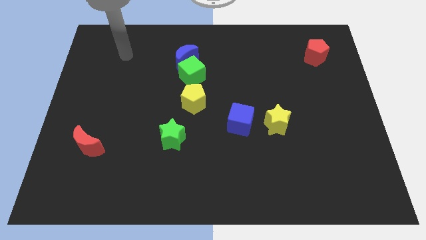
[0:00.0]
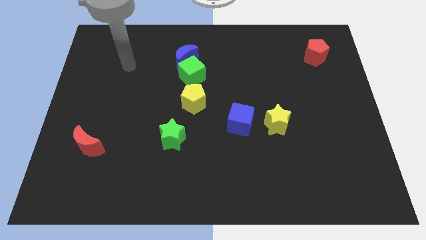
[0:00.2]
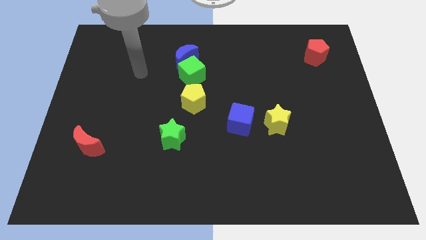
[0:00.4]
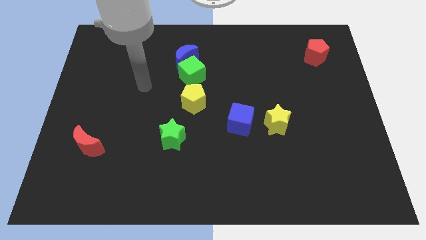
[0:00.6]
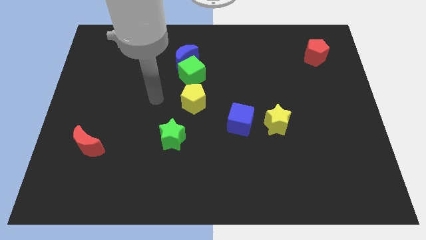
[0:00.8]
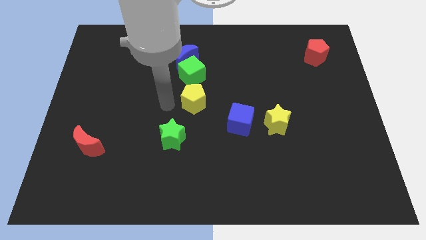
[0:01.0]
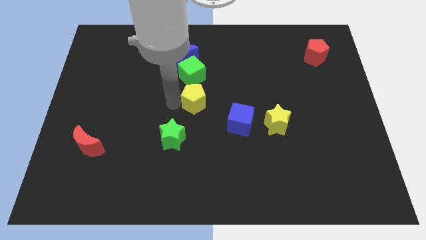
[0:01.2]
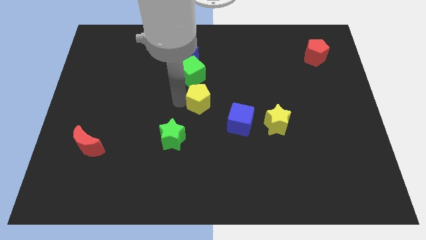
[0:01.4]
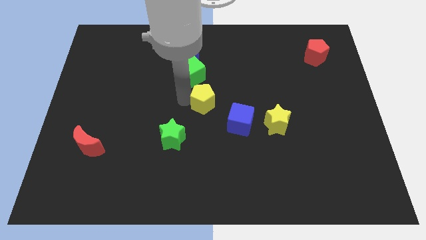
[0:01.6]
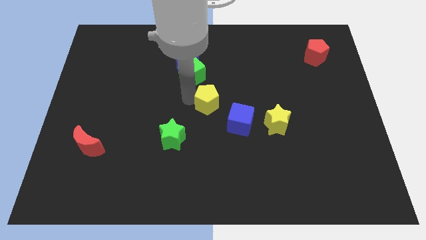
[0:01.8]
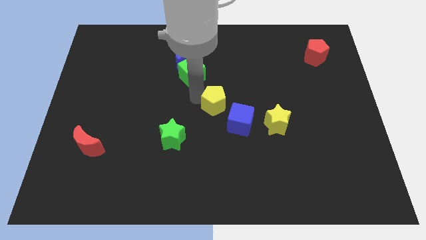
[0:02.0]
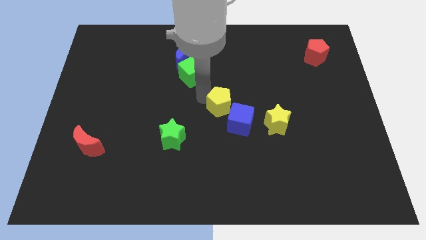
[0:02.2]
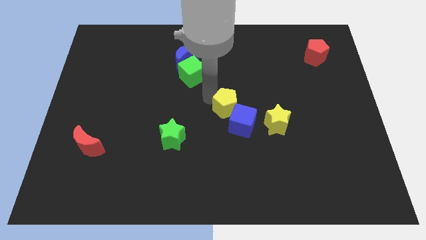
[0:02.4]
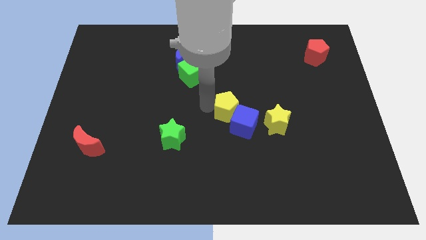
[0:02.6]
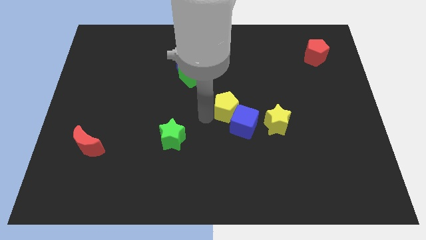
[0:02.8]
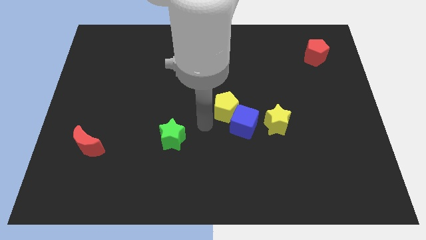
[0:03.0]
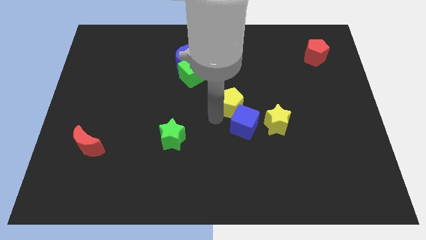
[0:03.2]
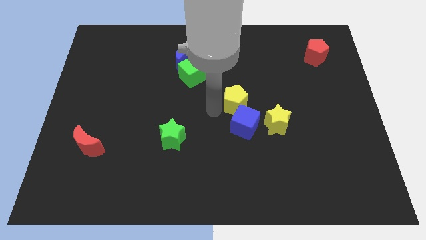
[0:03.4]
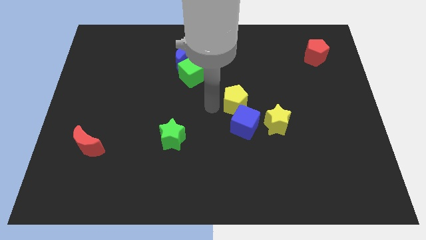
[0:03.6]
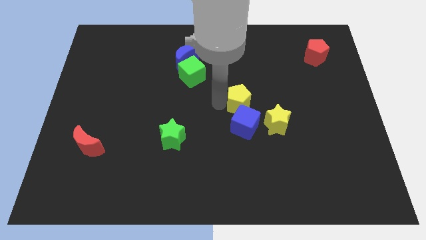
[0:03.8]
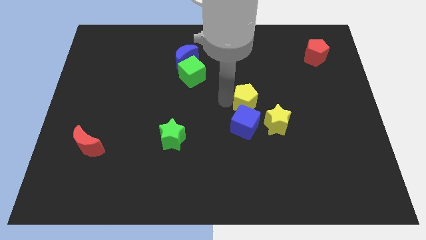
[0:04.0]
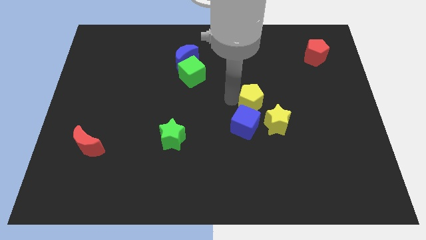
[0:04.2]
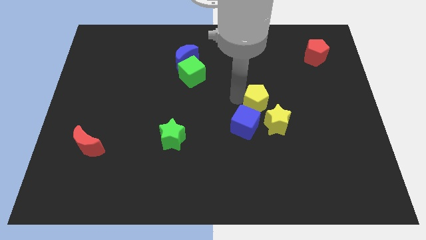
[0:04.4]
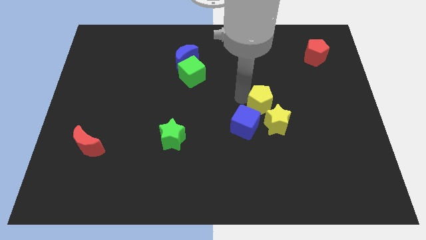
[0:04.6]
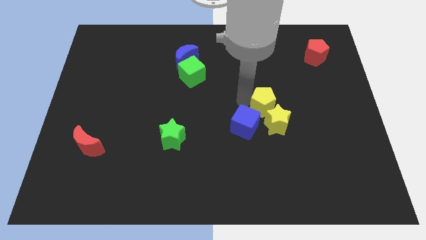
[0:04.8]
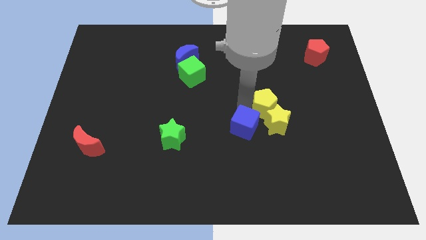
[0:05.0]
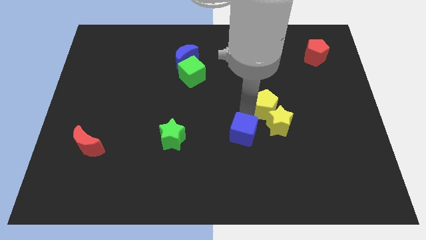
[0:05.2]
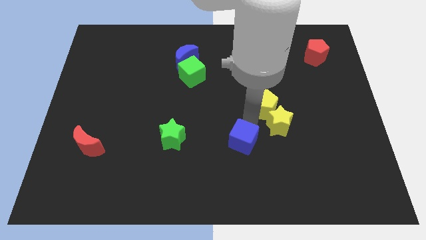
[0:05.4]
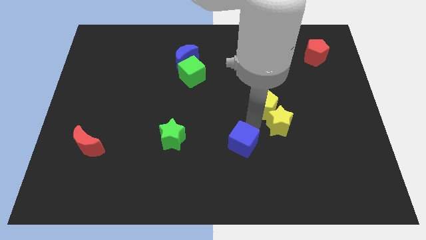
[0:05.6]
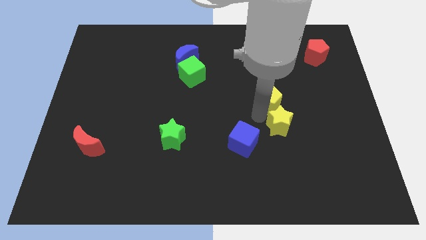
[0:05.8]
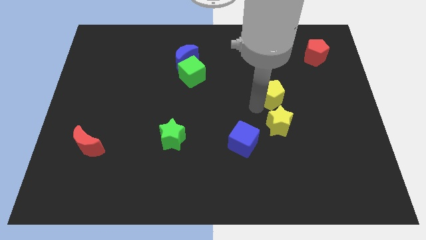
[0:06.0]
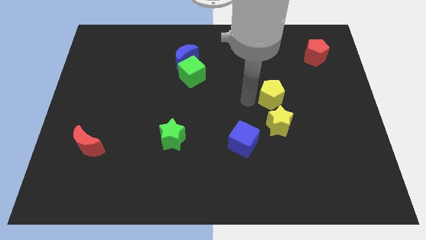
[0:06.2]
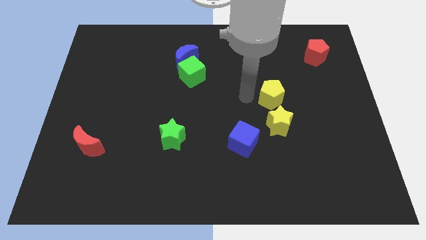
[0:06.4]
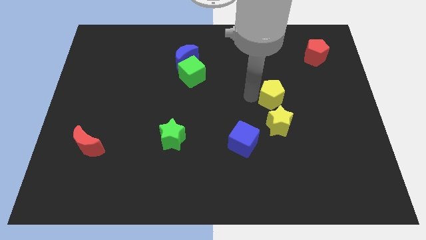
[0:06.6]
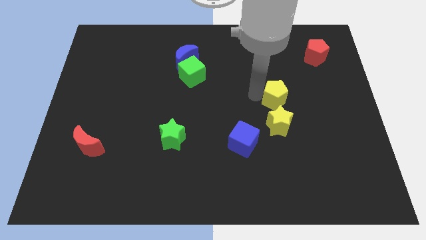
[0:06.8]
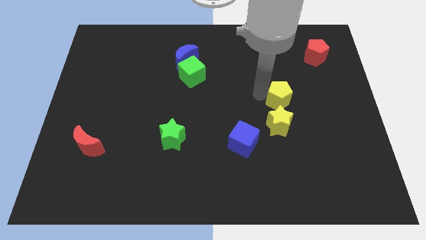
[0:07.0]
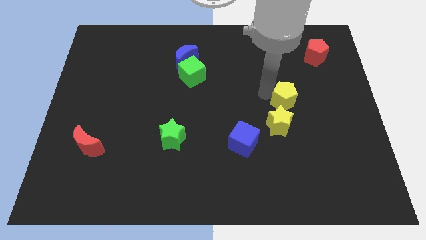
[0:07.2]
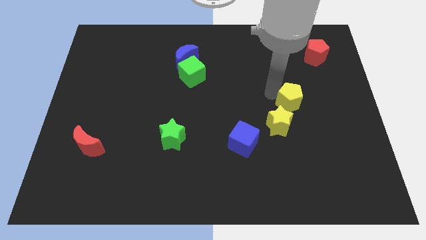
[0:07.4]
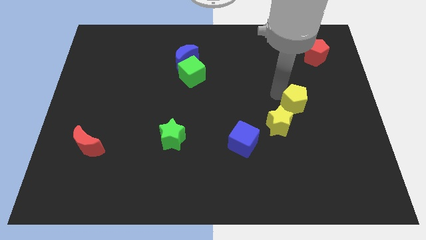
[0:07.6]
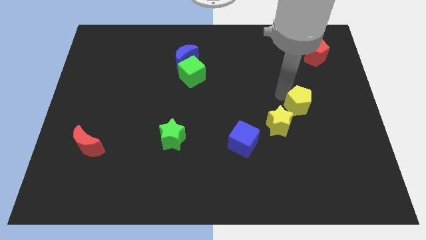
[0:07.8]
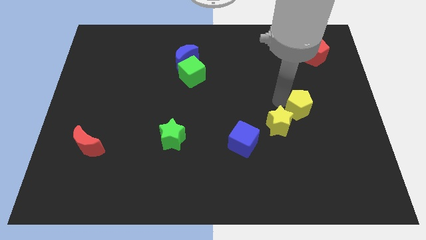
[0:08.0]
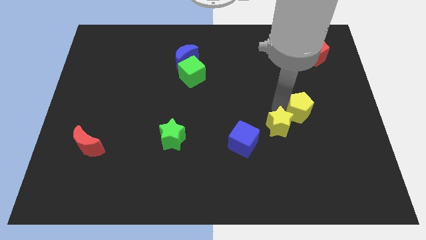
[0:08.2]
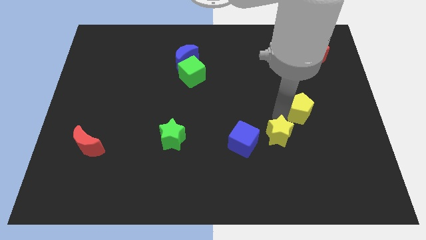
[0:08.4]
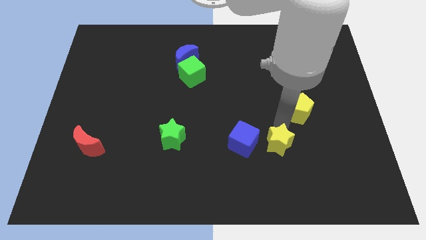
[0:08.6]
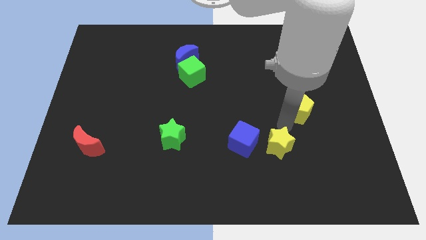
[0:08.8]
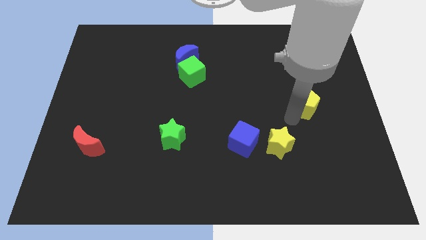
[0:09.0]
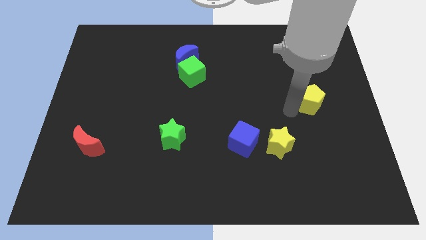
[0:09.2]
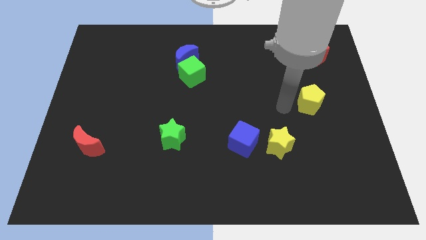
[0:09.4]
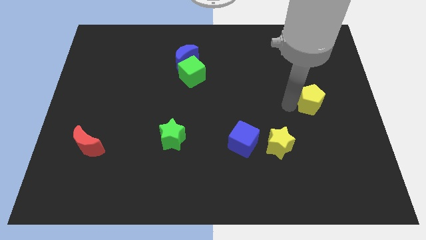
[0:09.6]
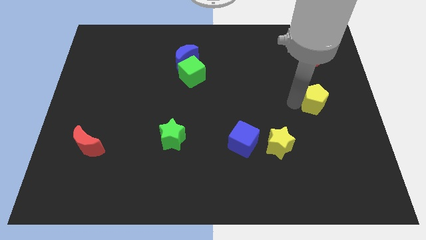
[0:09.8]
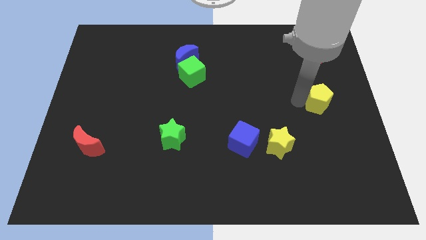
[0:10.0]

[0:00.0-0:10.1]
put the yellow pentagon to the right side of the board

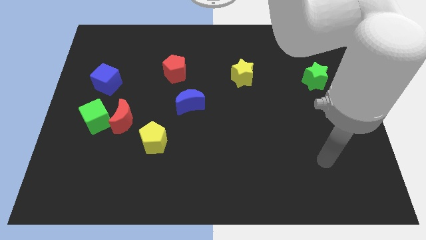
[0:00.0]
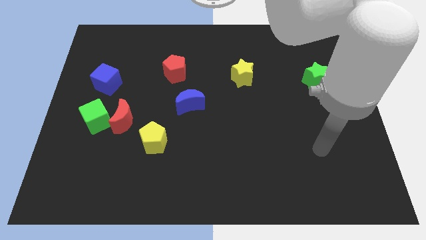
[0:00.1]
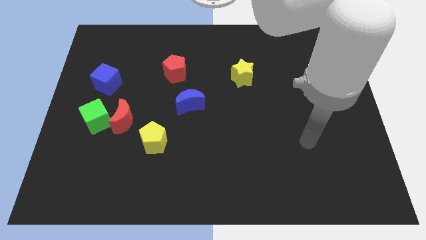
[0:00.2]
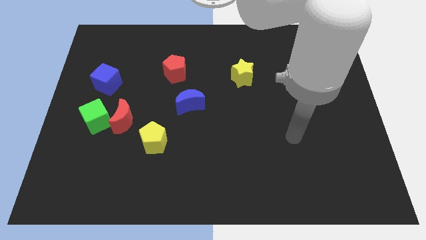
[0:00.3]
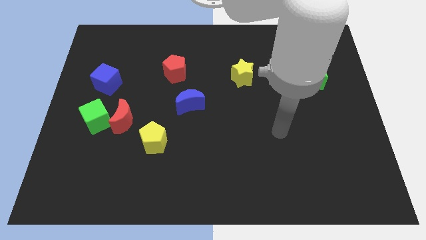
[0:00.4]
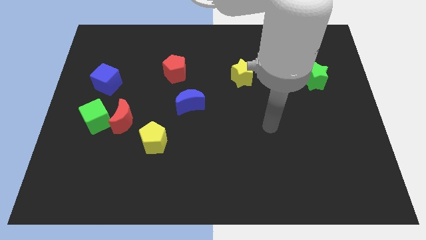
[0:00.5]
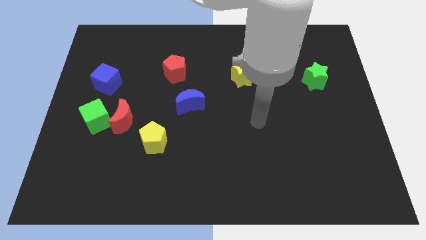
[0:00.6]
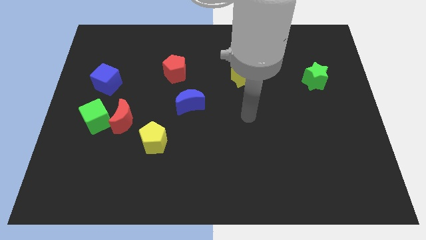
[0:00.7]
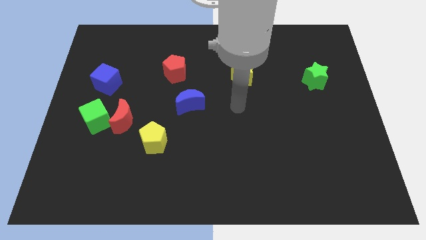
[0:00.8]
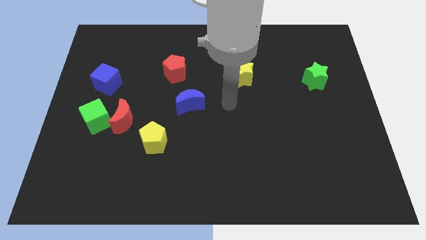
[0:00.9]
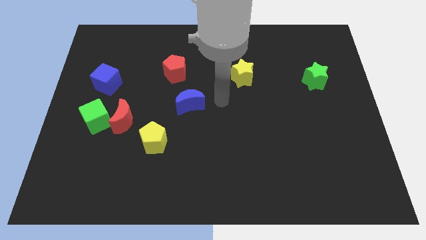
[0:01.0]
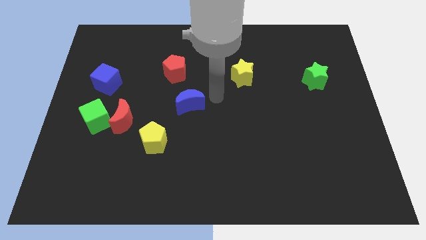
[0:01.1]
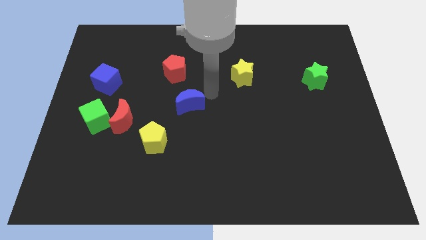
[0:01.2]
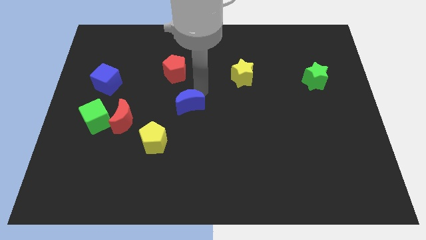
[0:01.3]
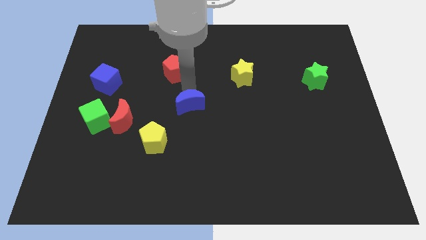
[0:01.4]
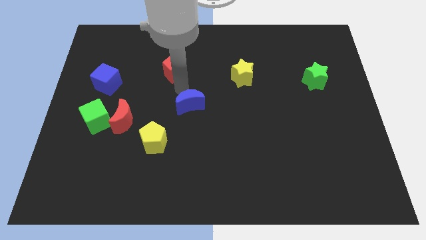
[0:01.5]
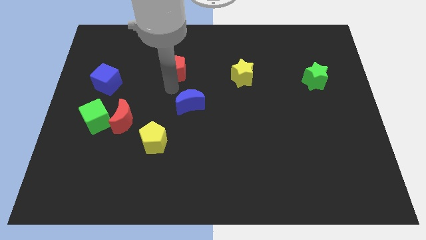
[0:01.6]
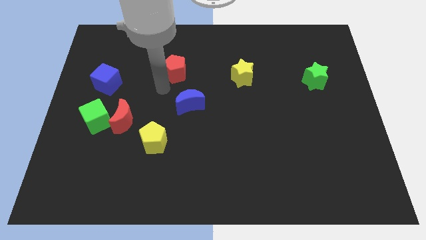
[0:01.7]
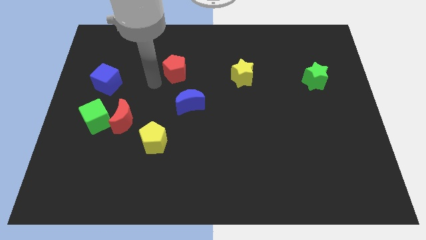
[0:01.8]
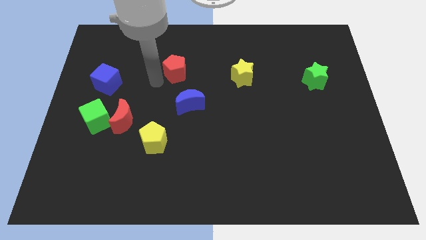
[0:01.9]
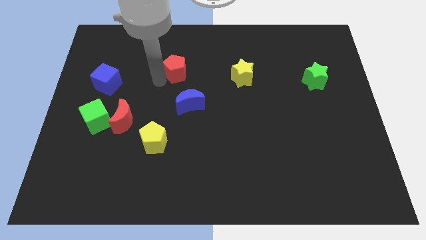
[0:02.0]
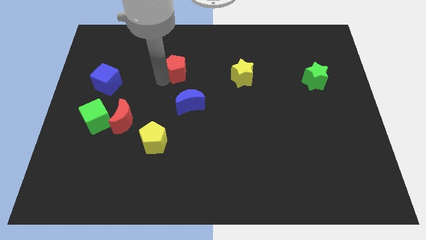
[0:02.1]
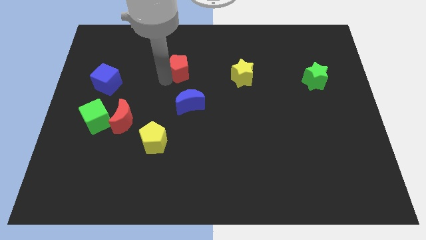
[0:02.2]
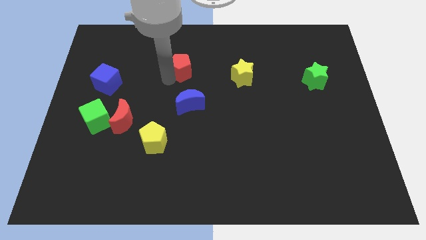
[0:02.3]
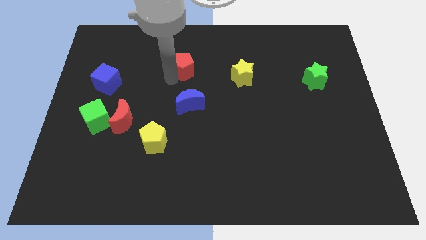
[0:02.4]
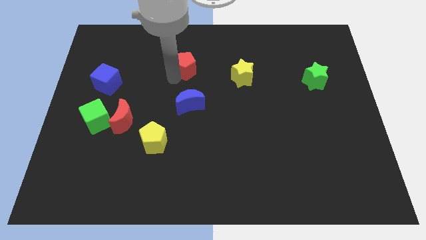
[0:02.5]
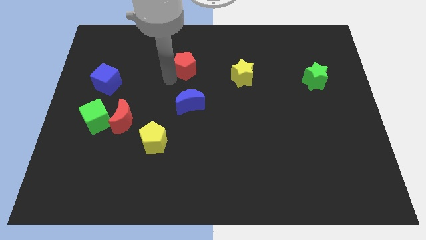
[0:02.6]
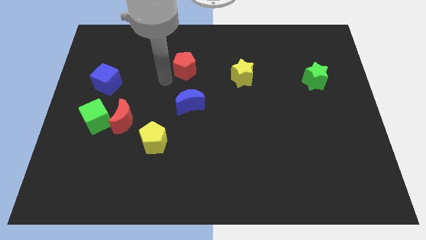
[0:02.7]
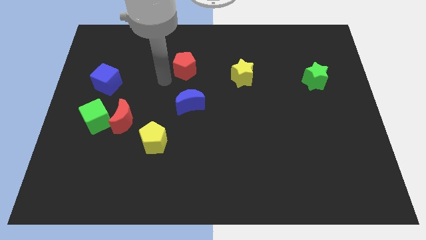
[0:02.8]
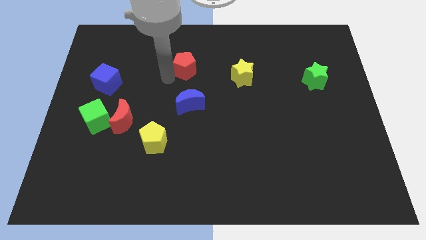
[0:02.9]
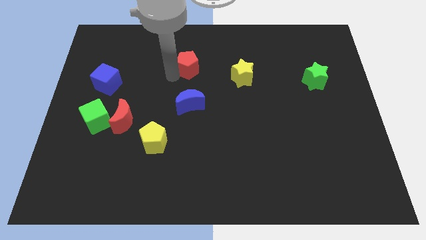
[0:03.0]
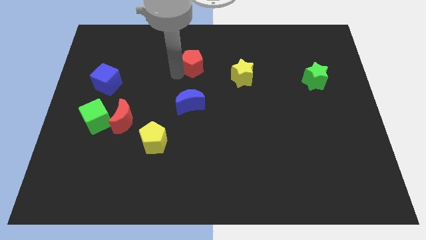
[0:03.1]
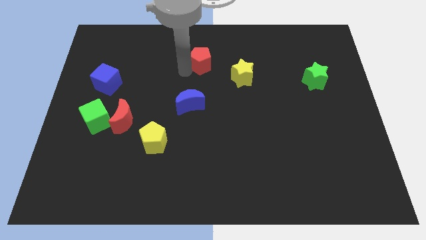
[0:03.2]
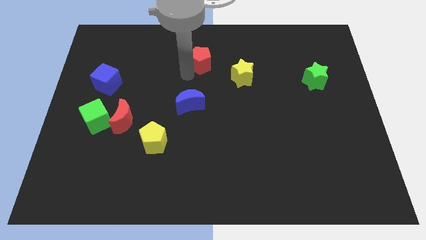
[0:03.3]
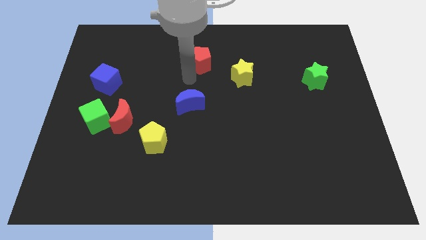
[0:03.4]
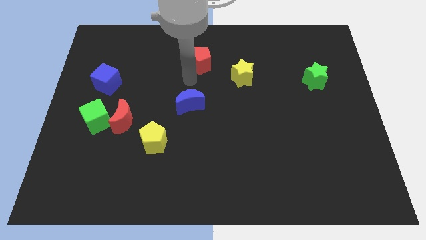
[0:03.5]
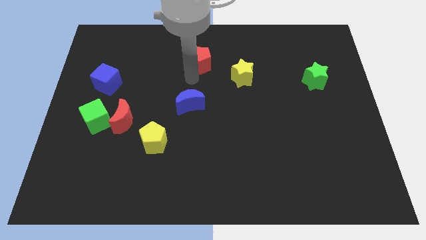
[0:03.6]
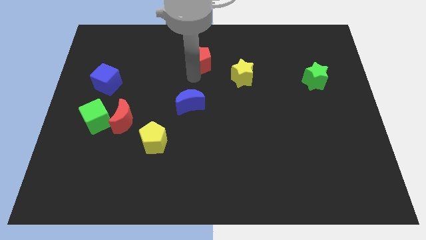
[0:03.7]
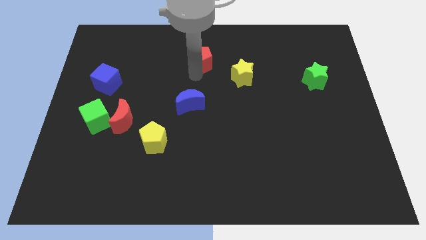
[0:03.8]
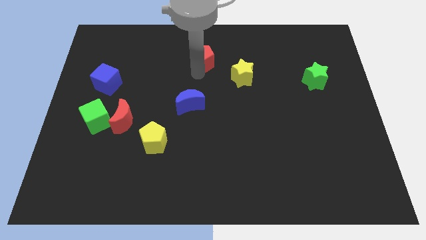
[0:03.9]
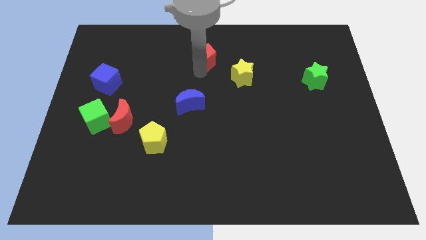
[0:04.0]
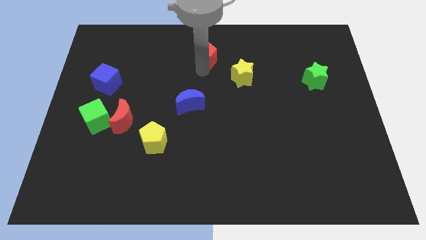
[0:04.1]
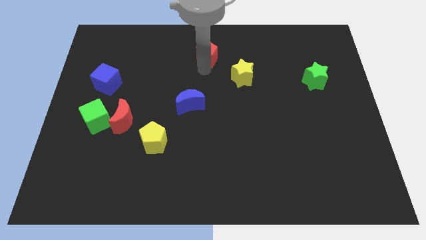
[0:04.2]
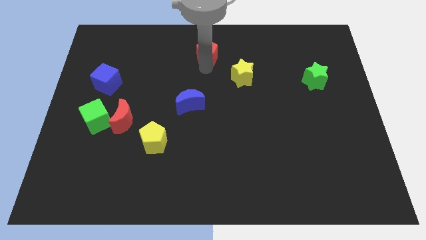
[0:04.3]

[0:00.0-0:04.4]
put the red pentagon to the top
